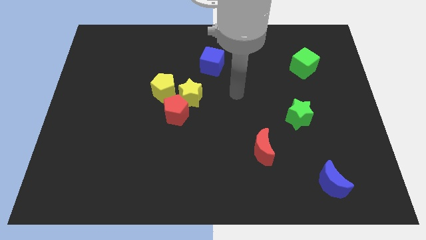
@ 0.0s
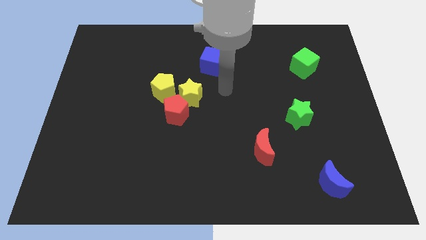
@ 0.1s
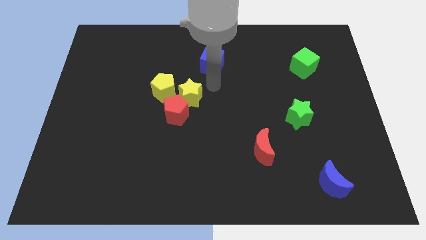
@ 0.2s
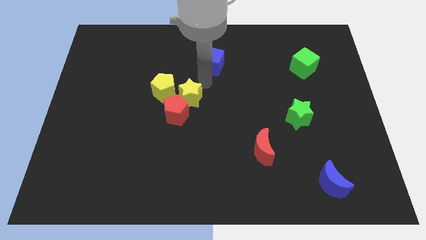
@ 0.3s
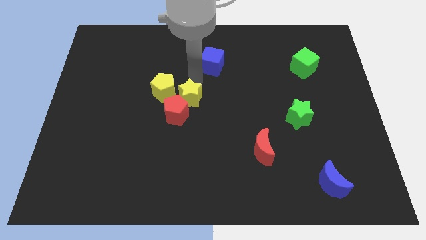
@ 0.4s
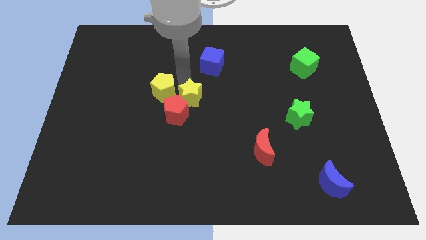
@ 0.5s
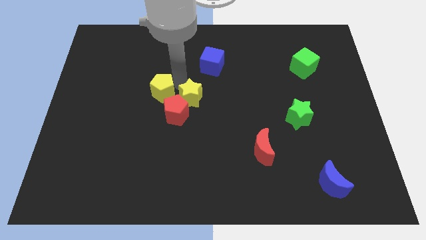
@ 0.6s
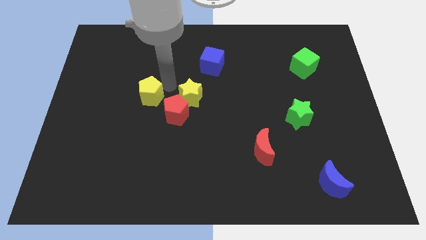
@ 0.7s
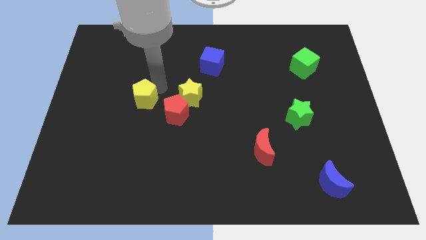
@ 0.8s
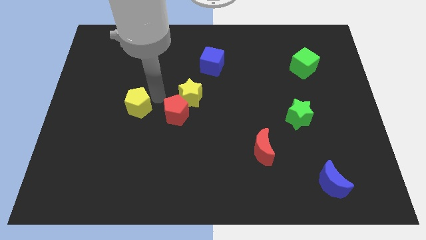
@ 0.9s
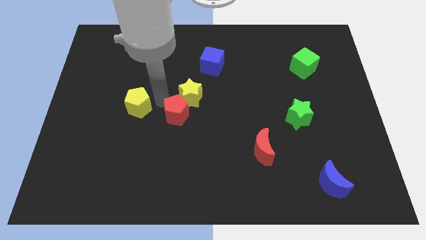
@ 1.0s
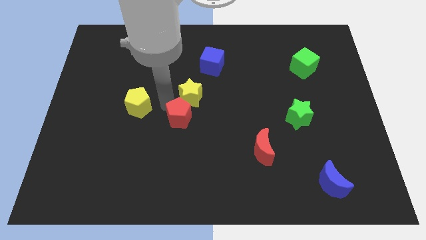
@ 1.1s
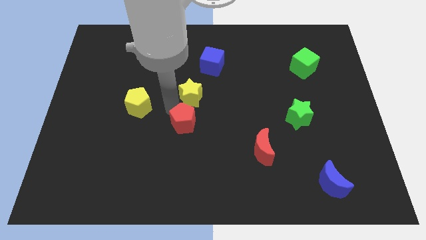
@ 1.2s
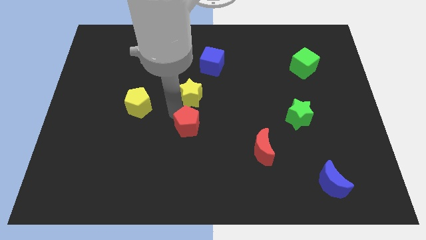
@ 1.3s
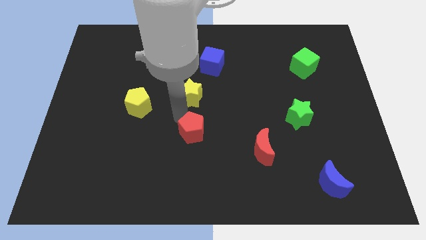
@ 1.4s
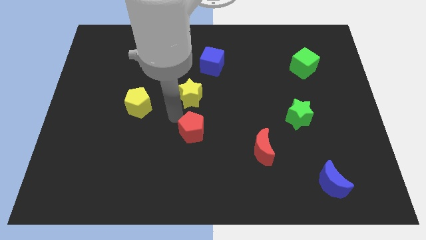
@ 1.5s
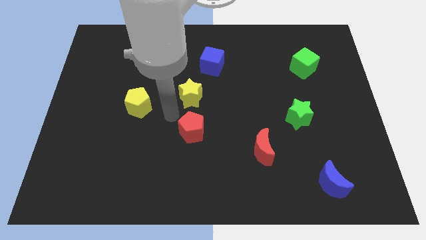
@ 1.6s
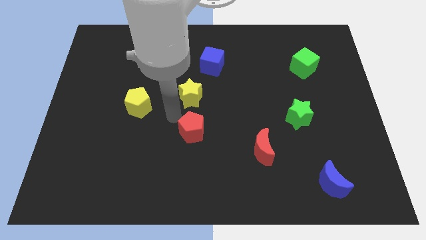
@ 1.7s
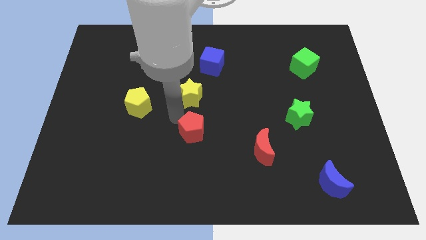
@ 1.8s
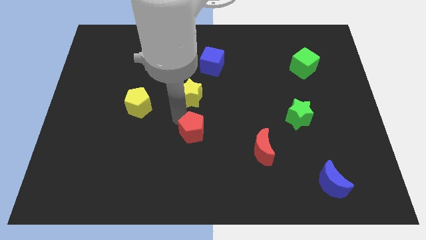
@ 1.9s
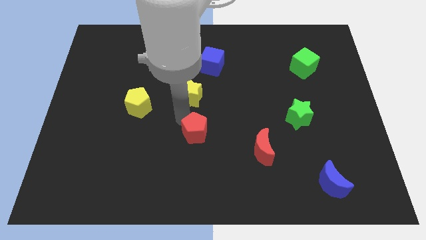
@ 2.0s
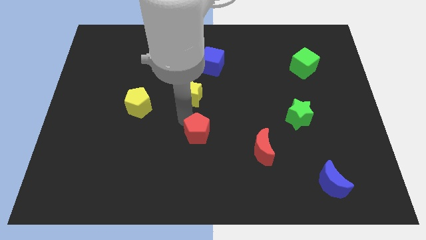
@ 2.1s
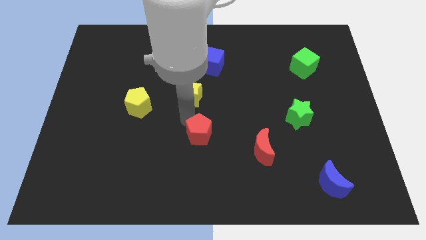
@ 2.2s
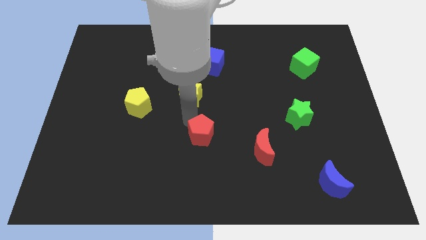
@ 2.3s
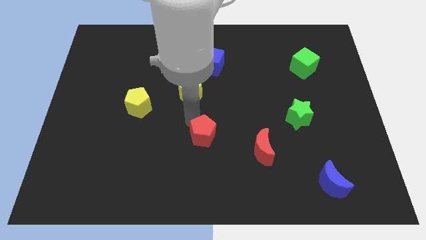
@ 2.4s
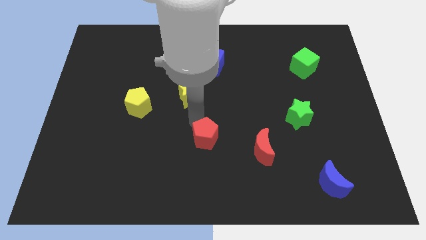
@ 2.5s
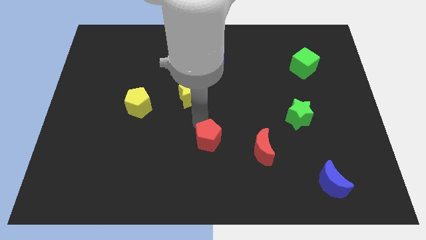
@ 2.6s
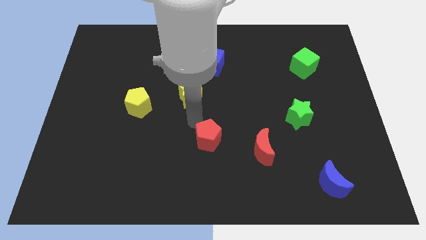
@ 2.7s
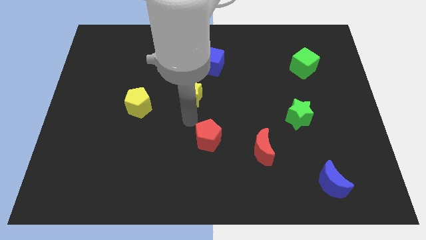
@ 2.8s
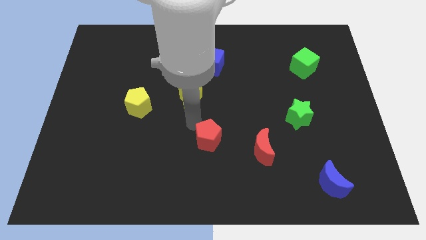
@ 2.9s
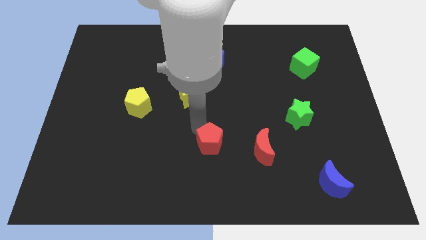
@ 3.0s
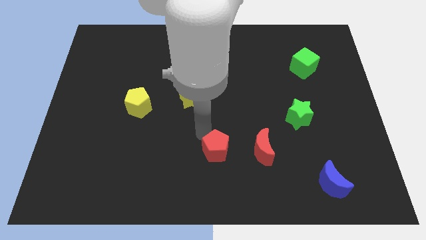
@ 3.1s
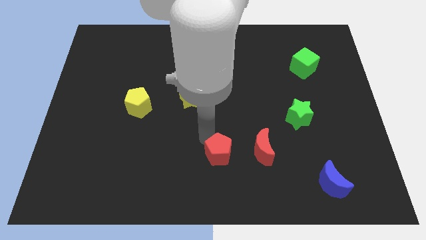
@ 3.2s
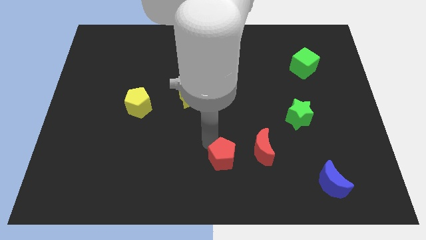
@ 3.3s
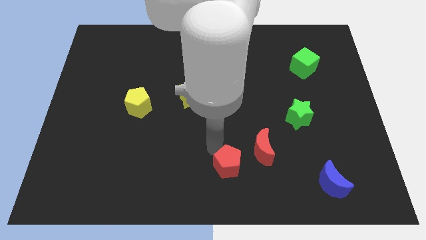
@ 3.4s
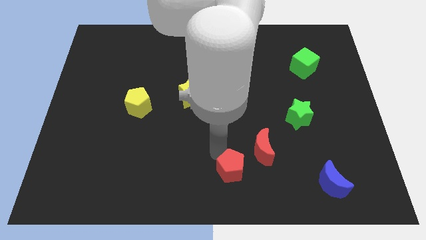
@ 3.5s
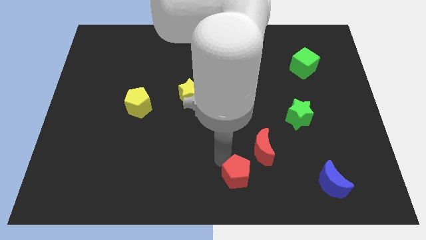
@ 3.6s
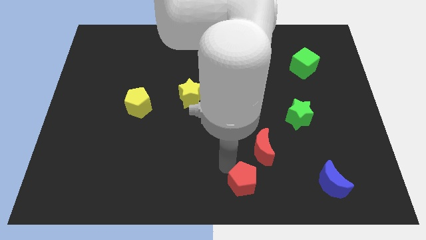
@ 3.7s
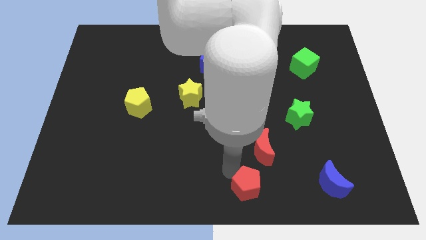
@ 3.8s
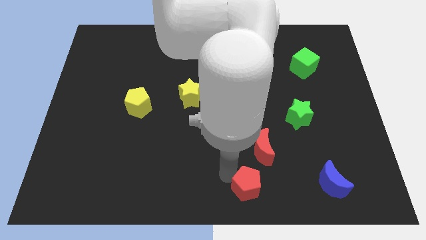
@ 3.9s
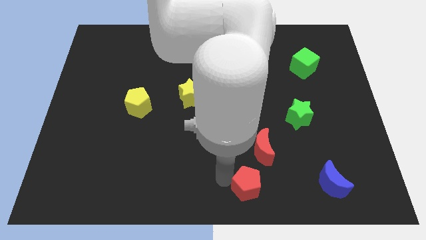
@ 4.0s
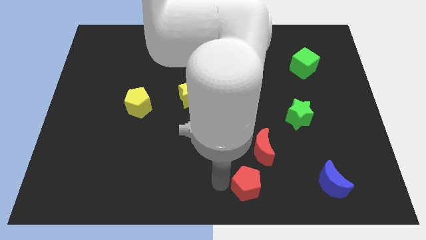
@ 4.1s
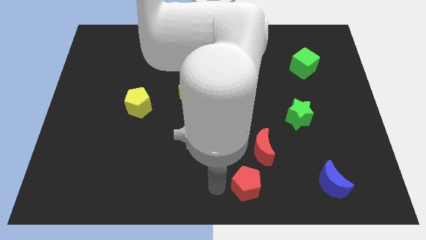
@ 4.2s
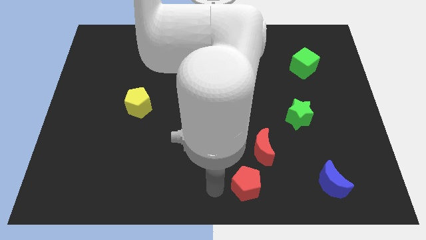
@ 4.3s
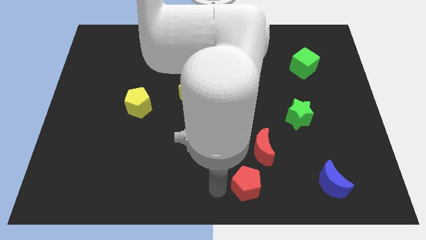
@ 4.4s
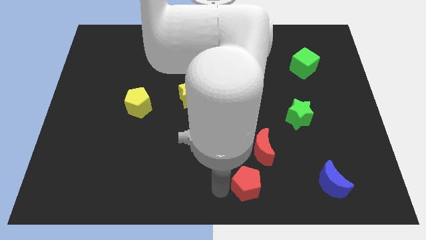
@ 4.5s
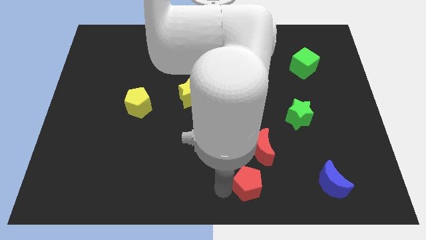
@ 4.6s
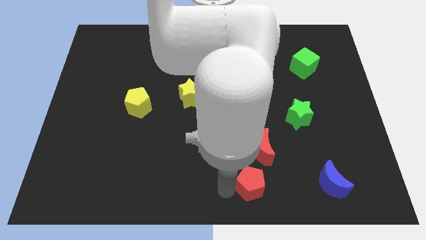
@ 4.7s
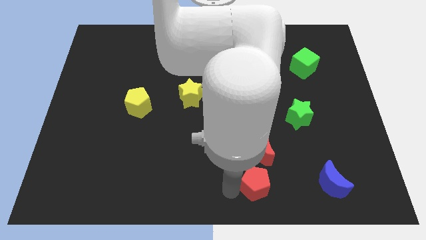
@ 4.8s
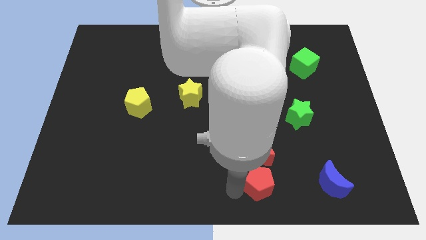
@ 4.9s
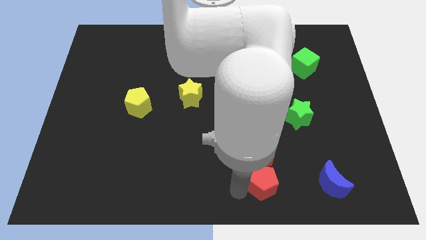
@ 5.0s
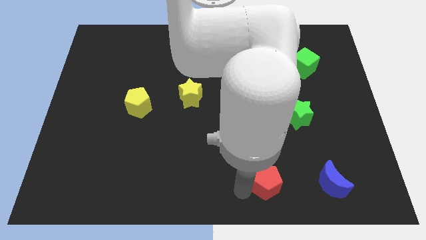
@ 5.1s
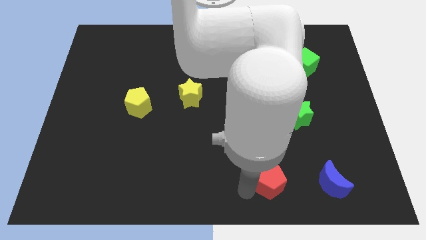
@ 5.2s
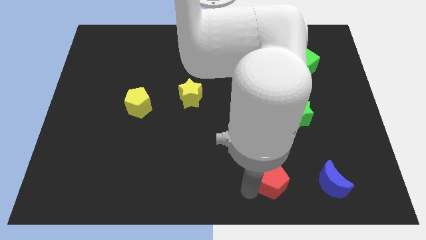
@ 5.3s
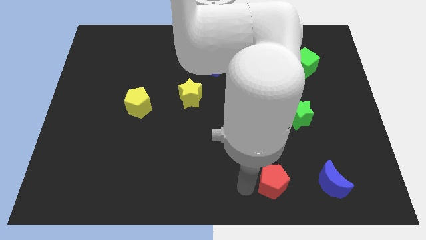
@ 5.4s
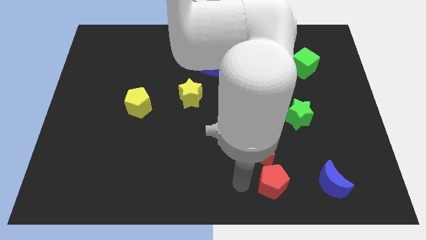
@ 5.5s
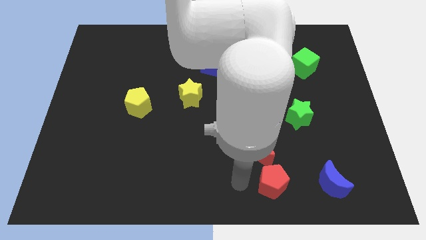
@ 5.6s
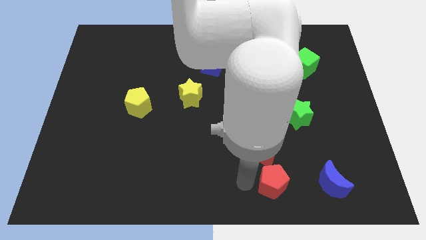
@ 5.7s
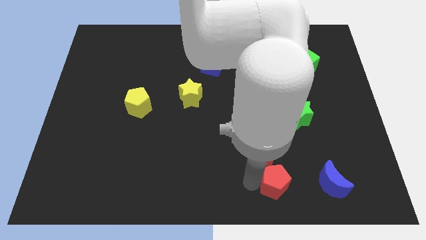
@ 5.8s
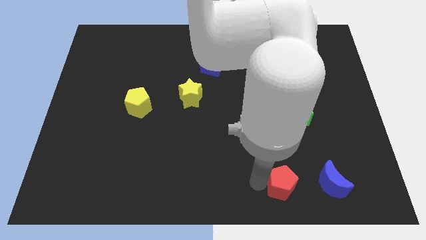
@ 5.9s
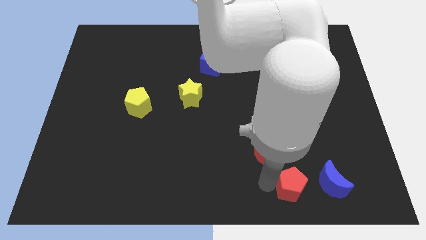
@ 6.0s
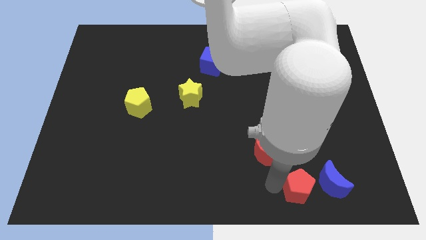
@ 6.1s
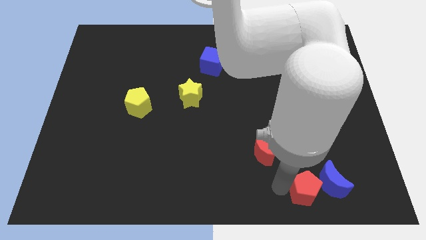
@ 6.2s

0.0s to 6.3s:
move the red pentagon next to the blue moon

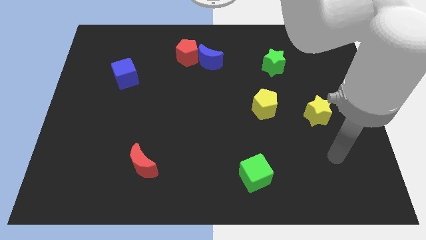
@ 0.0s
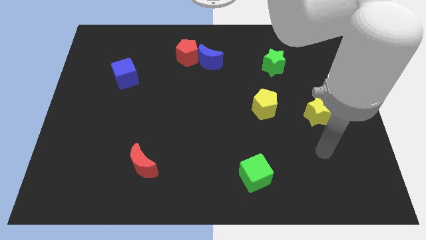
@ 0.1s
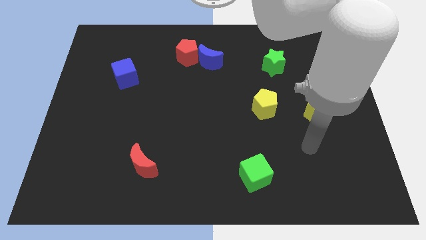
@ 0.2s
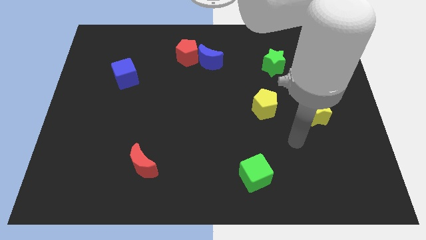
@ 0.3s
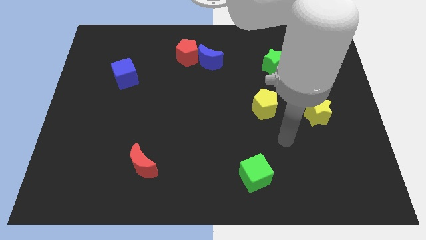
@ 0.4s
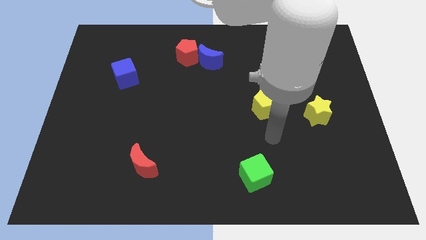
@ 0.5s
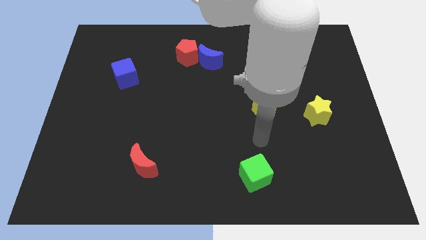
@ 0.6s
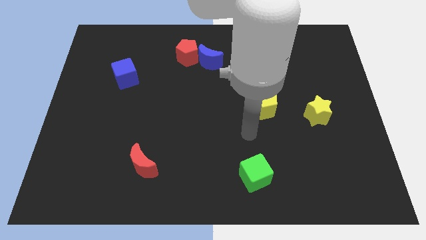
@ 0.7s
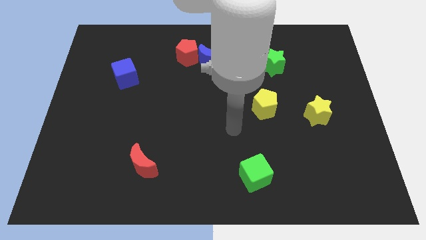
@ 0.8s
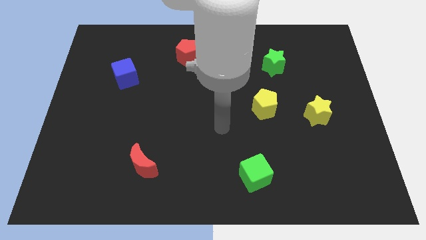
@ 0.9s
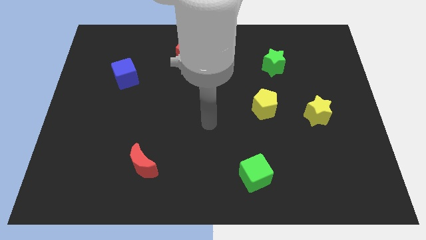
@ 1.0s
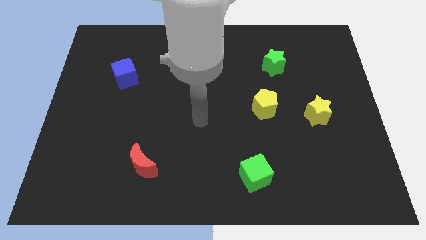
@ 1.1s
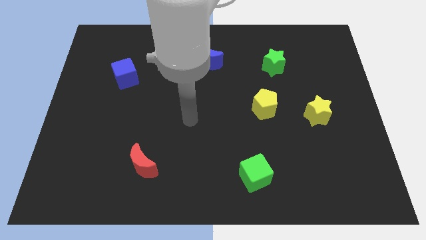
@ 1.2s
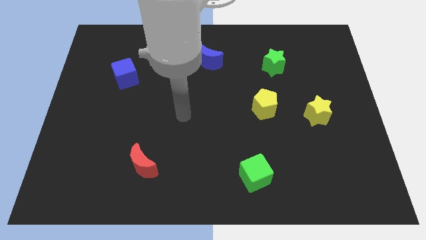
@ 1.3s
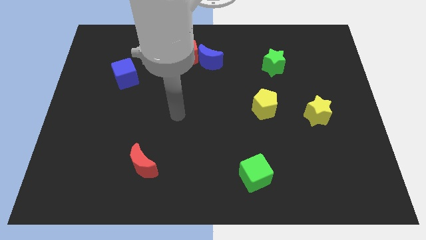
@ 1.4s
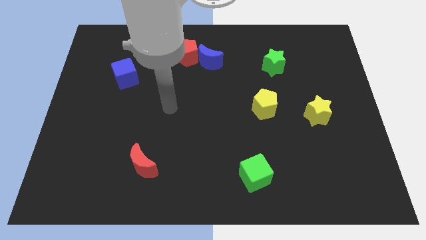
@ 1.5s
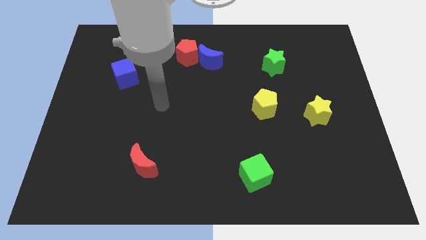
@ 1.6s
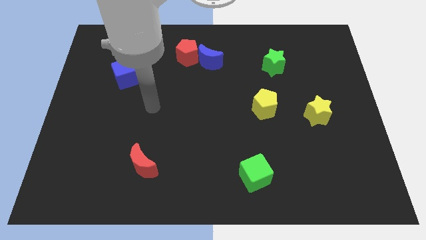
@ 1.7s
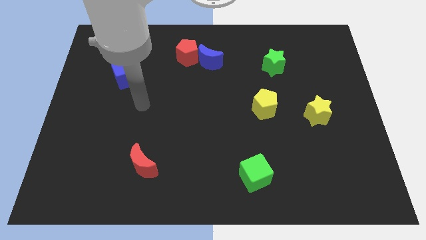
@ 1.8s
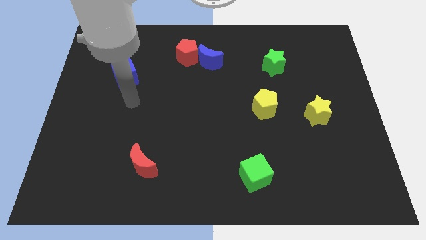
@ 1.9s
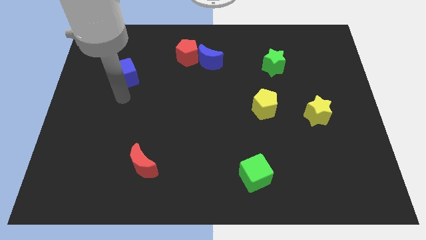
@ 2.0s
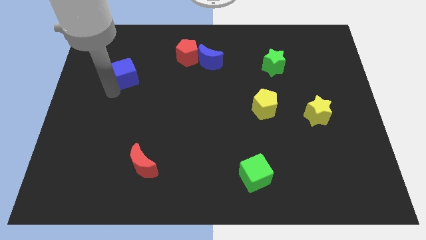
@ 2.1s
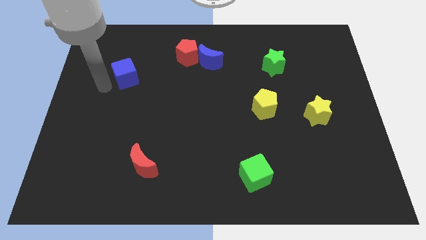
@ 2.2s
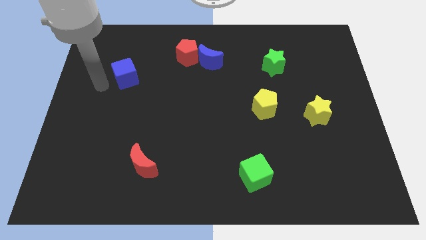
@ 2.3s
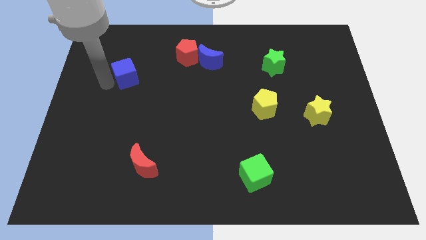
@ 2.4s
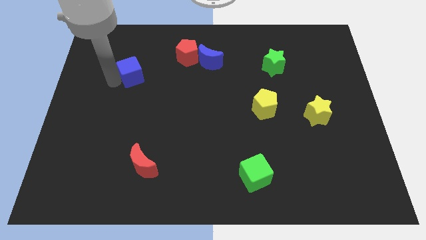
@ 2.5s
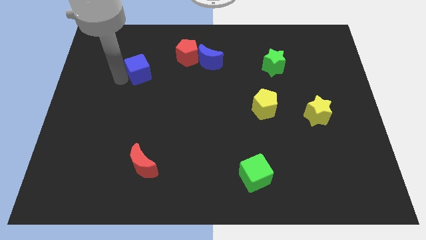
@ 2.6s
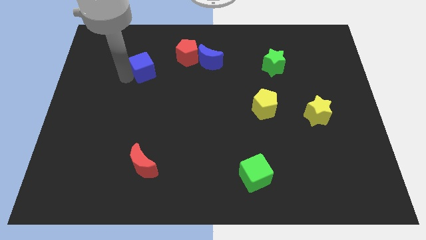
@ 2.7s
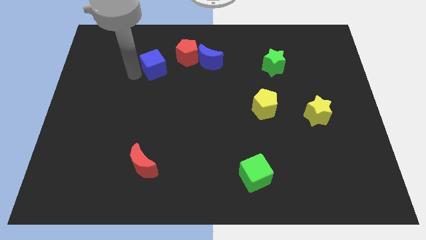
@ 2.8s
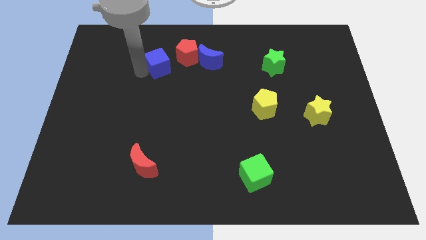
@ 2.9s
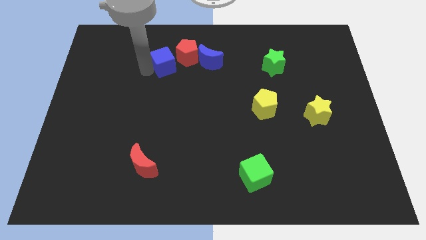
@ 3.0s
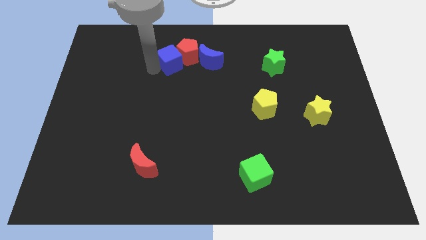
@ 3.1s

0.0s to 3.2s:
put the blue cube to the red pentagon
